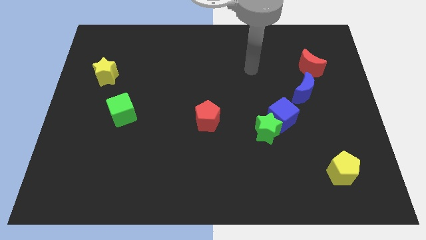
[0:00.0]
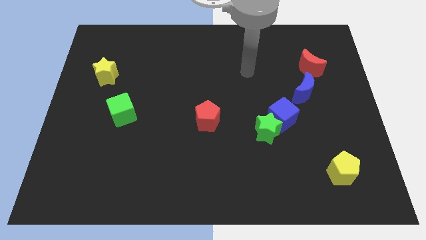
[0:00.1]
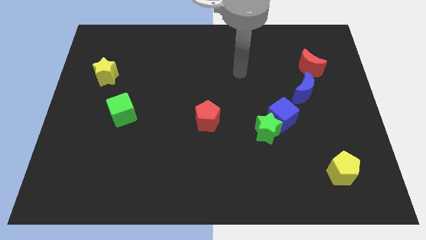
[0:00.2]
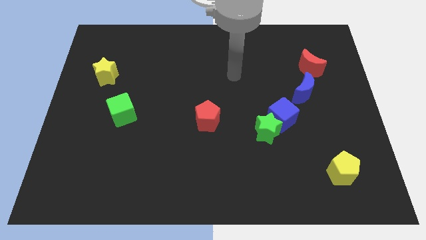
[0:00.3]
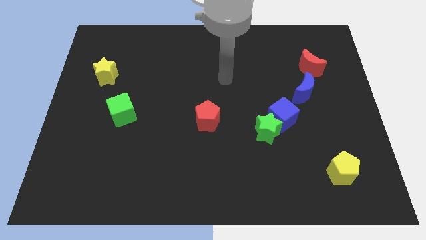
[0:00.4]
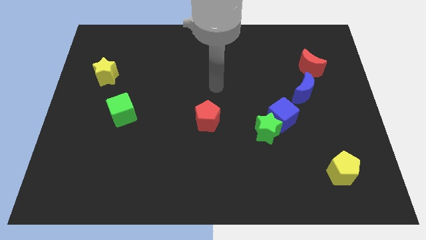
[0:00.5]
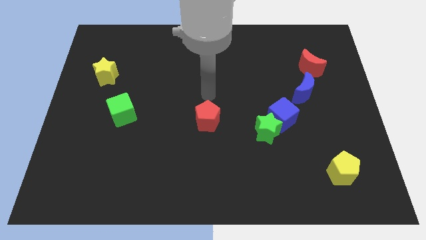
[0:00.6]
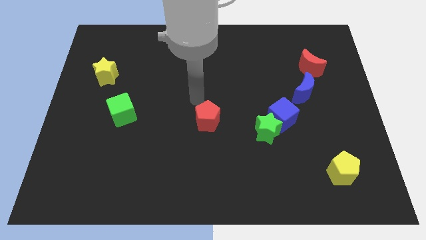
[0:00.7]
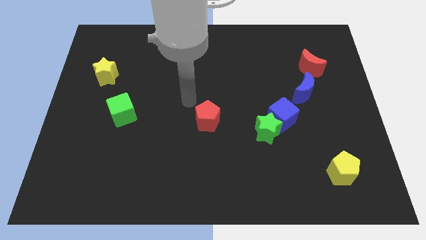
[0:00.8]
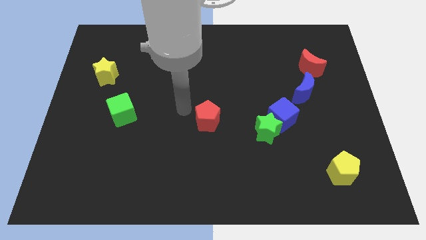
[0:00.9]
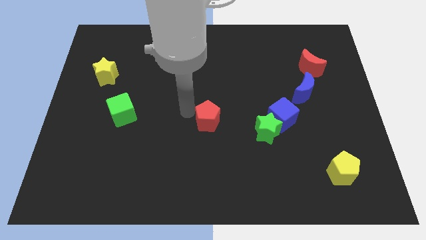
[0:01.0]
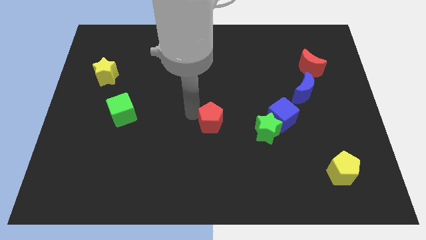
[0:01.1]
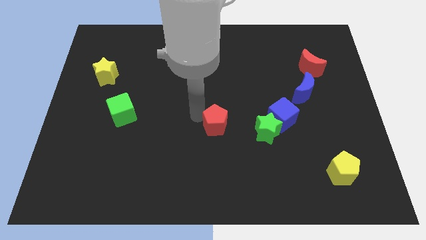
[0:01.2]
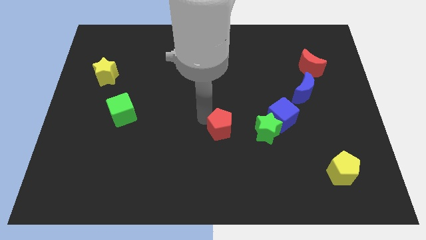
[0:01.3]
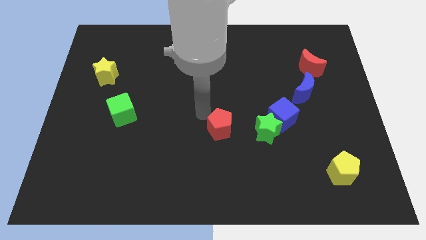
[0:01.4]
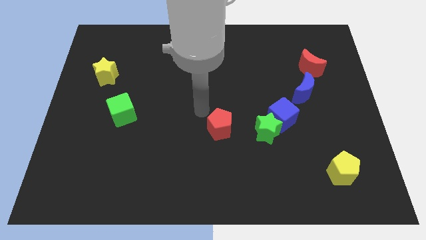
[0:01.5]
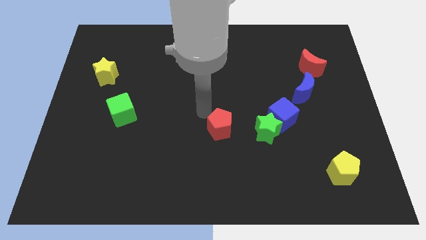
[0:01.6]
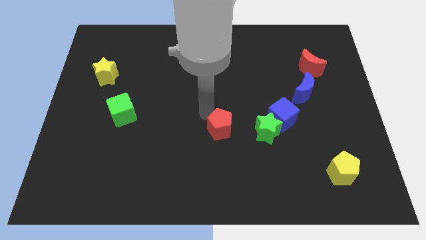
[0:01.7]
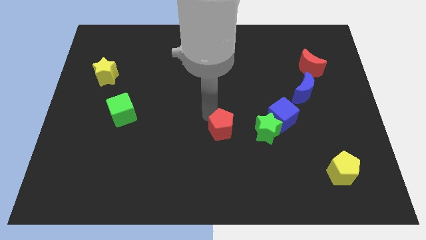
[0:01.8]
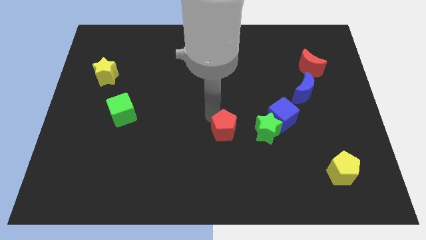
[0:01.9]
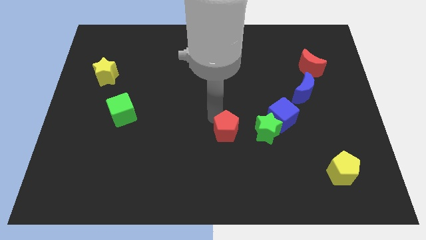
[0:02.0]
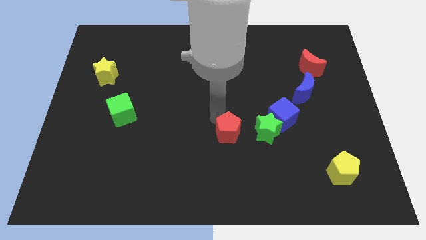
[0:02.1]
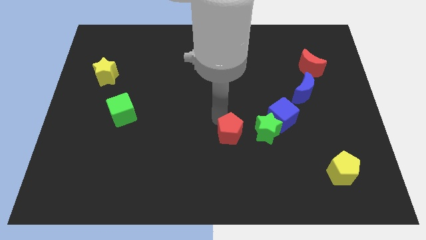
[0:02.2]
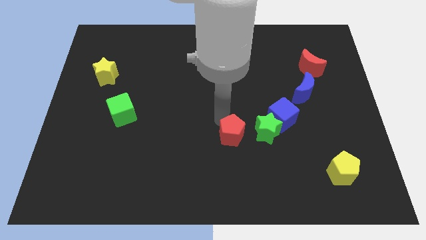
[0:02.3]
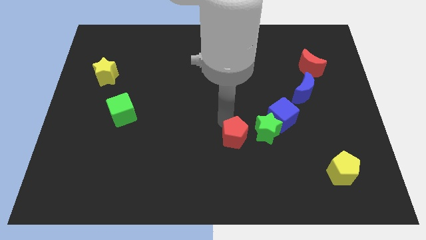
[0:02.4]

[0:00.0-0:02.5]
slightly slide the red pentagon downwards and then to the right

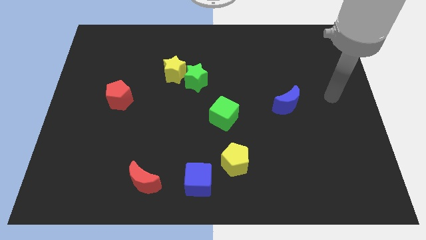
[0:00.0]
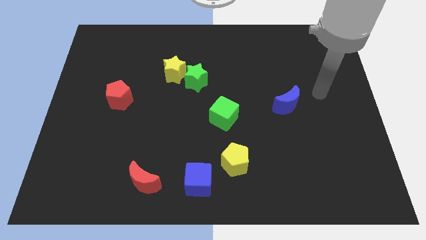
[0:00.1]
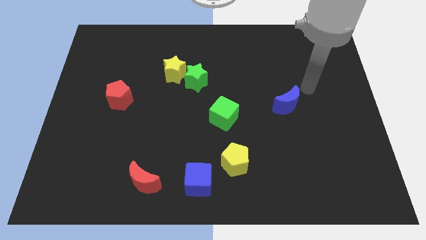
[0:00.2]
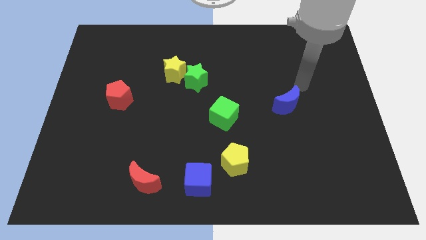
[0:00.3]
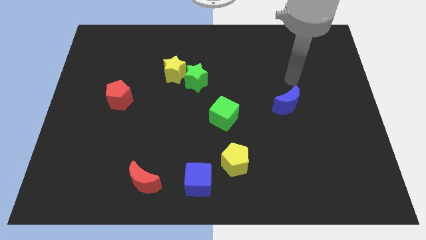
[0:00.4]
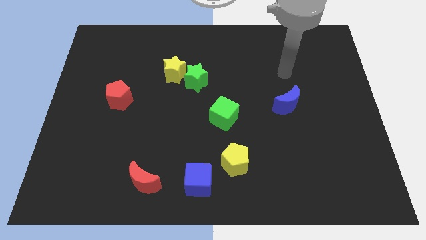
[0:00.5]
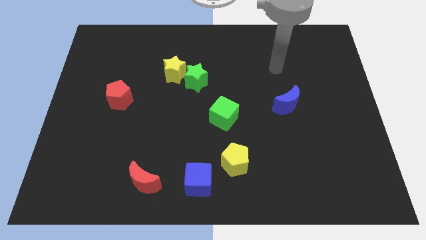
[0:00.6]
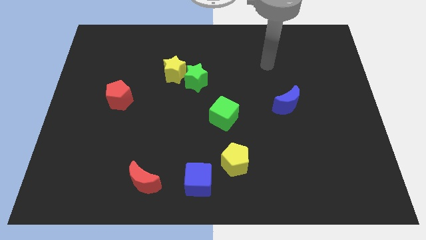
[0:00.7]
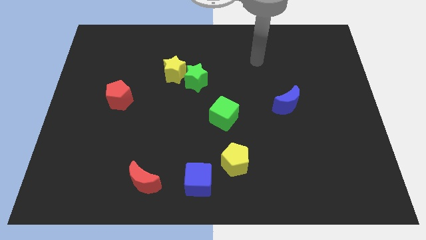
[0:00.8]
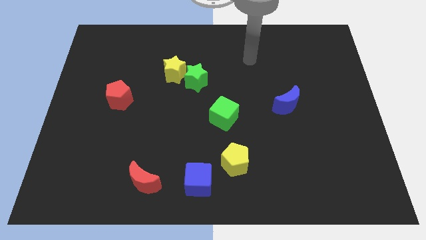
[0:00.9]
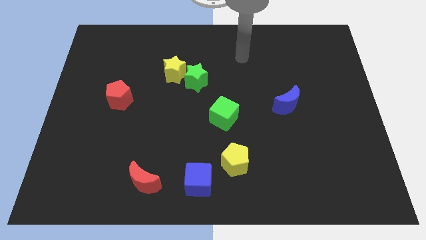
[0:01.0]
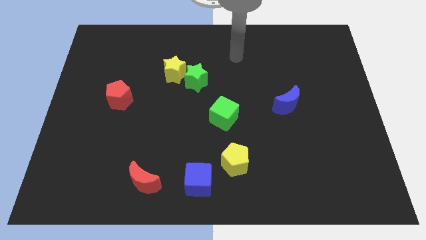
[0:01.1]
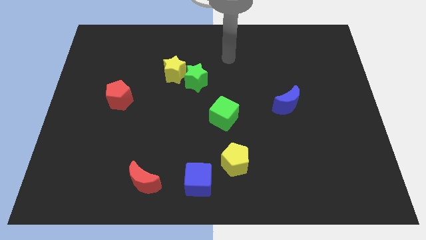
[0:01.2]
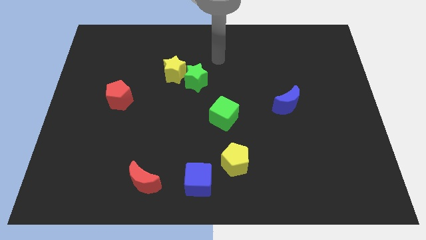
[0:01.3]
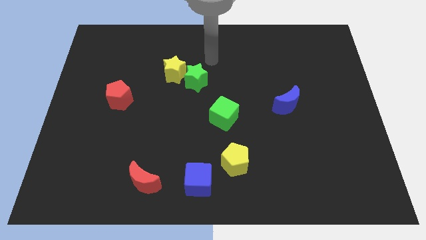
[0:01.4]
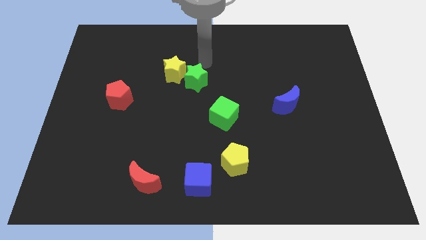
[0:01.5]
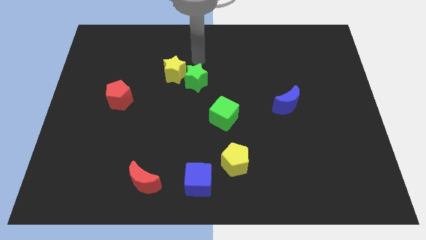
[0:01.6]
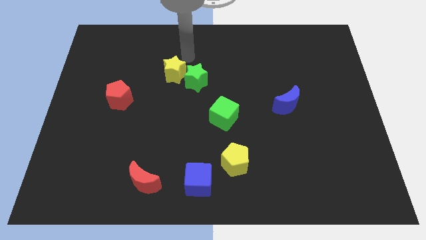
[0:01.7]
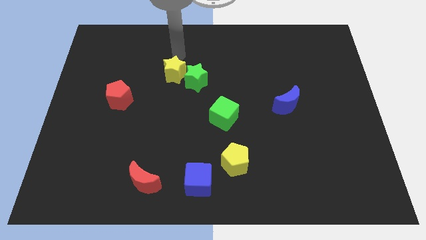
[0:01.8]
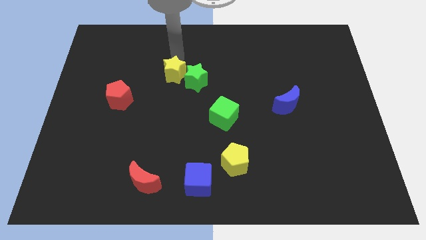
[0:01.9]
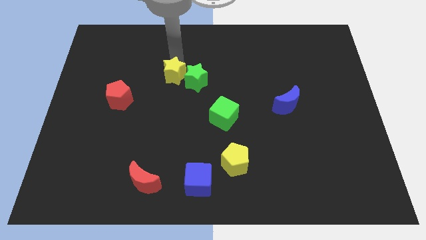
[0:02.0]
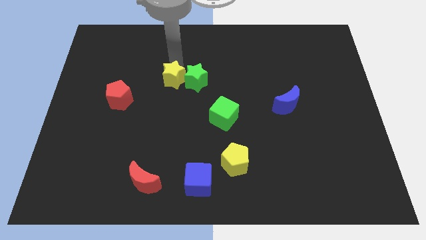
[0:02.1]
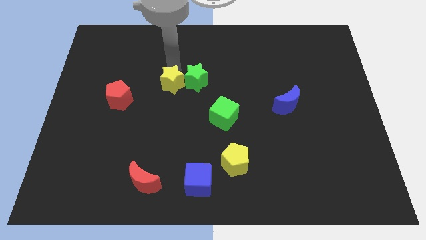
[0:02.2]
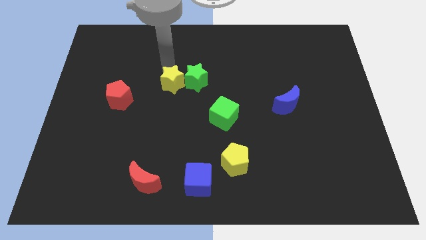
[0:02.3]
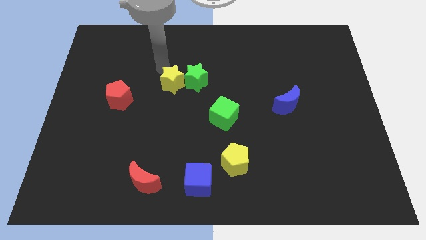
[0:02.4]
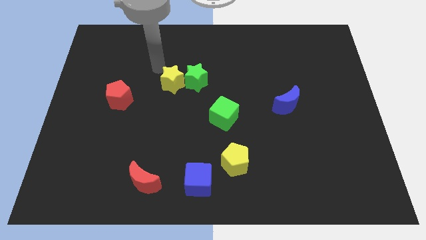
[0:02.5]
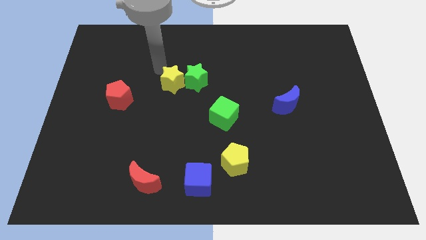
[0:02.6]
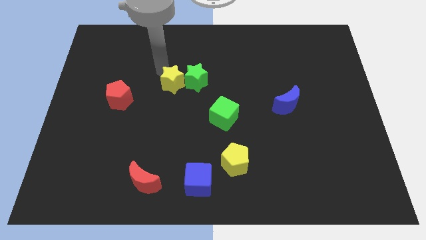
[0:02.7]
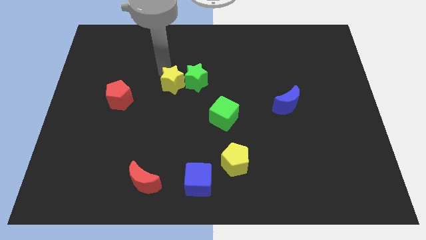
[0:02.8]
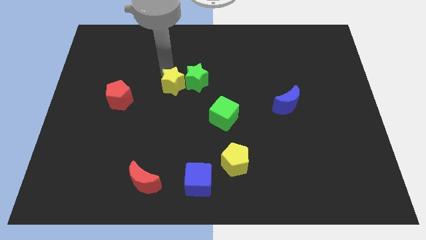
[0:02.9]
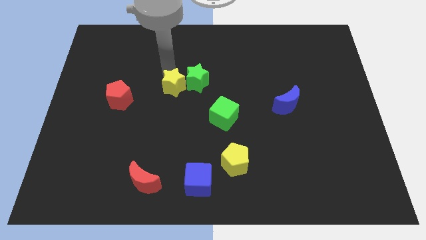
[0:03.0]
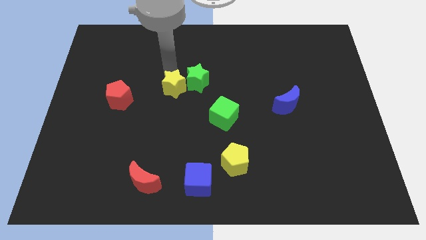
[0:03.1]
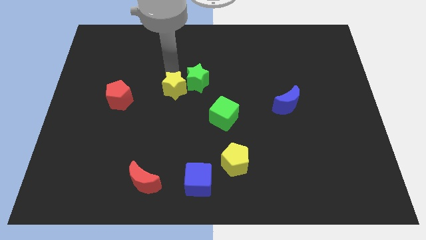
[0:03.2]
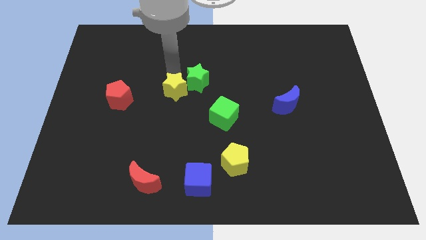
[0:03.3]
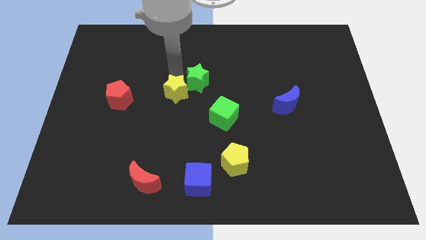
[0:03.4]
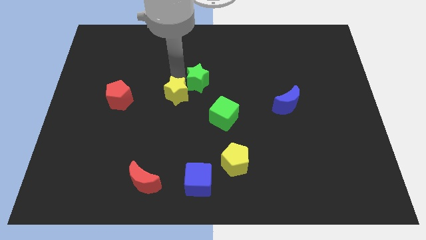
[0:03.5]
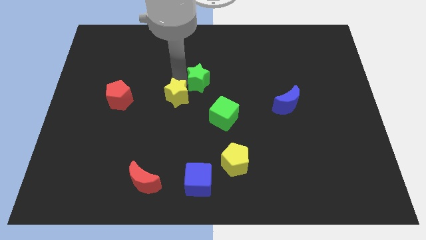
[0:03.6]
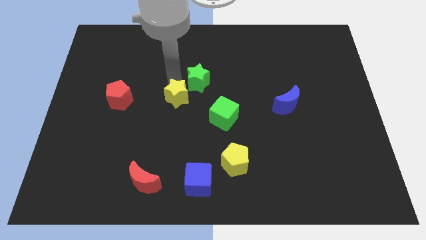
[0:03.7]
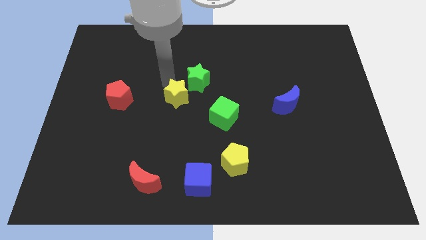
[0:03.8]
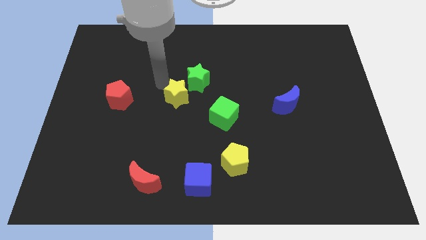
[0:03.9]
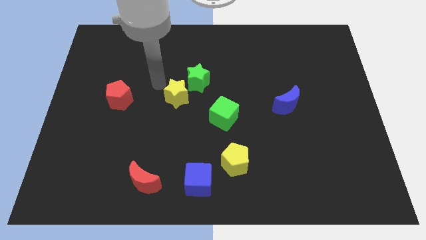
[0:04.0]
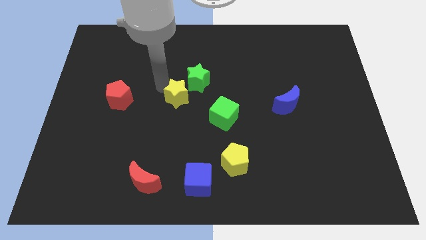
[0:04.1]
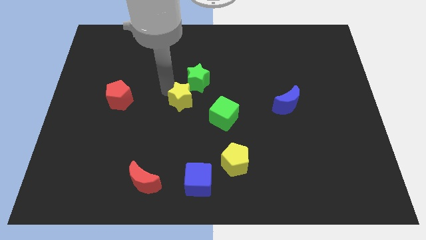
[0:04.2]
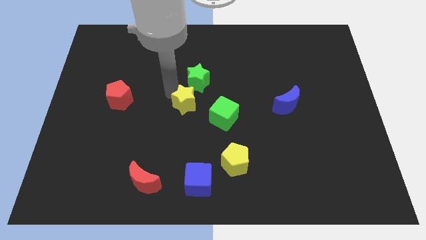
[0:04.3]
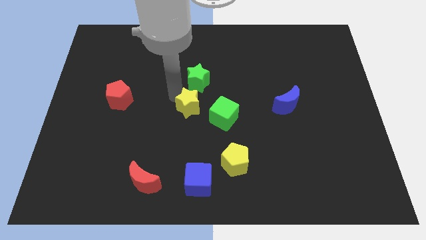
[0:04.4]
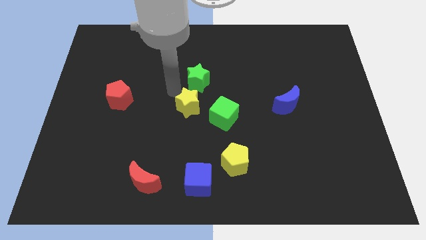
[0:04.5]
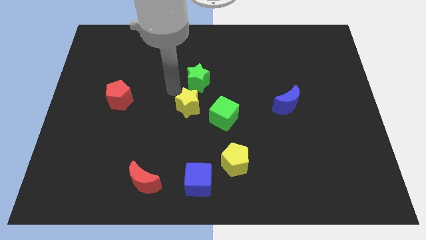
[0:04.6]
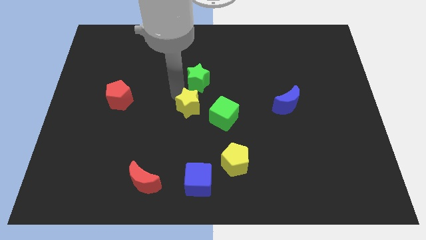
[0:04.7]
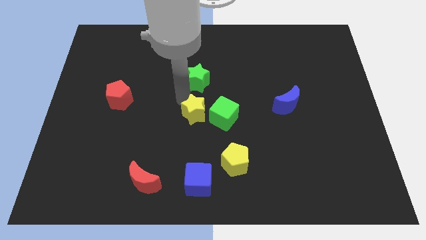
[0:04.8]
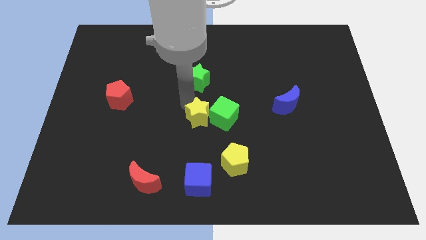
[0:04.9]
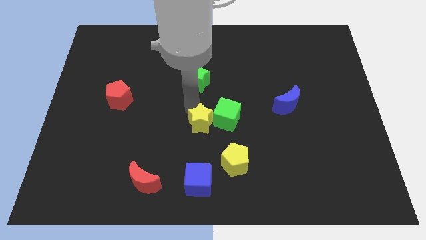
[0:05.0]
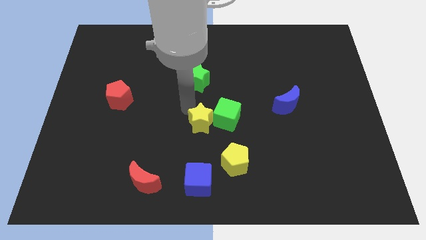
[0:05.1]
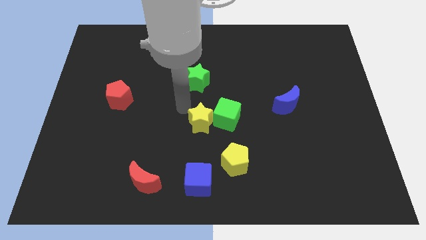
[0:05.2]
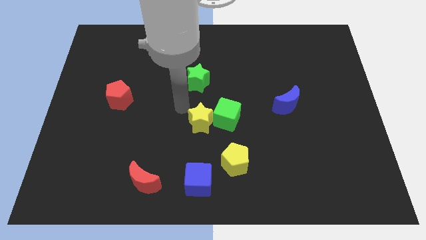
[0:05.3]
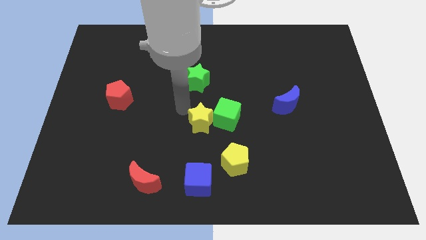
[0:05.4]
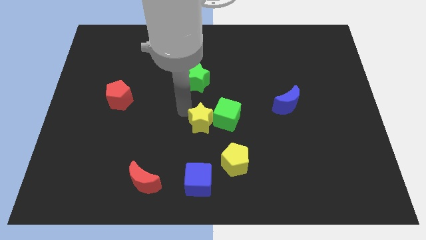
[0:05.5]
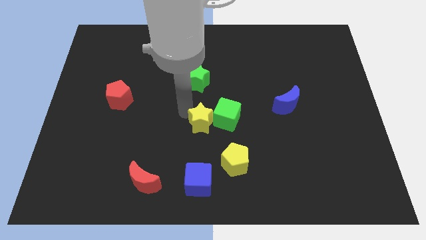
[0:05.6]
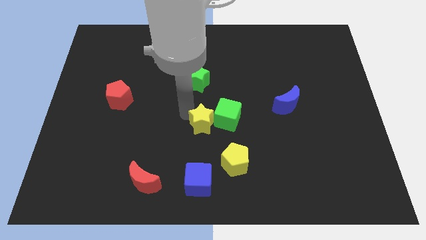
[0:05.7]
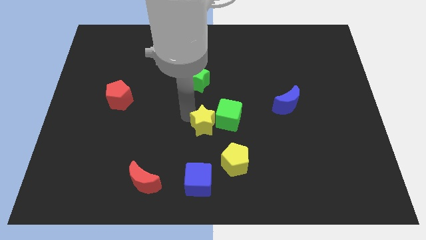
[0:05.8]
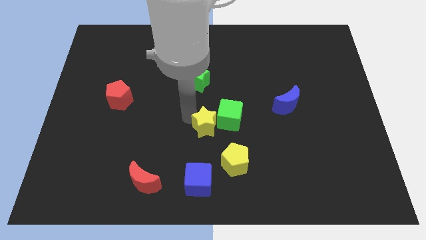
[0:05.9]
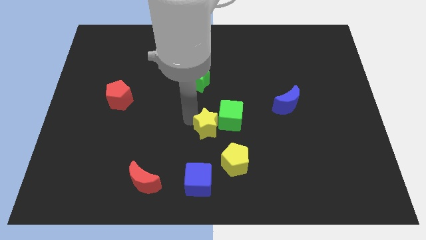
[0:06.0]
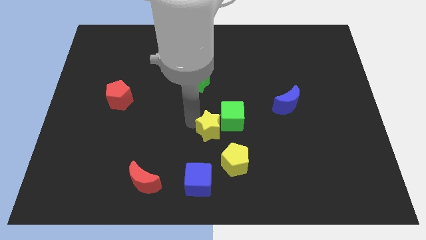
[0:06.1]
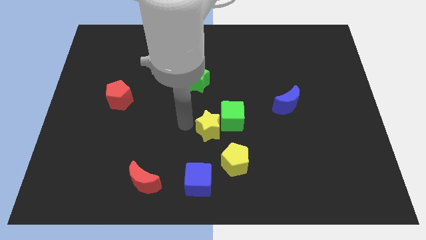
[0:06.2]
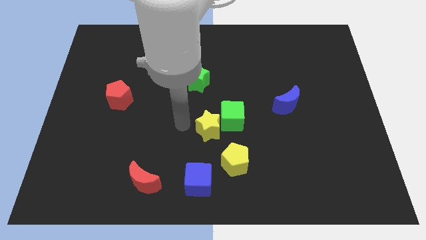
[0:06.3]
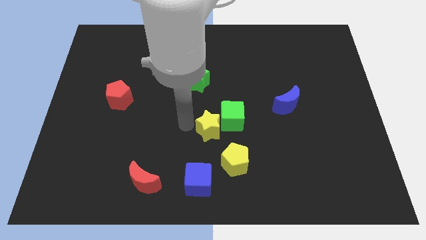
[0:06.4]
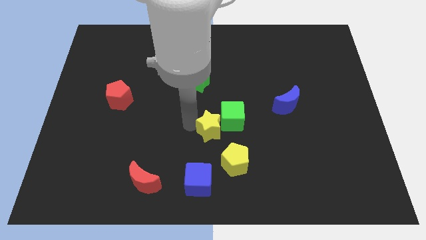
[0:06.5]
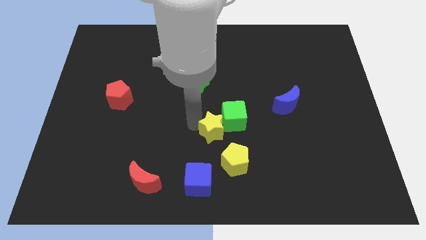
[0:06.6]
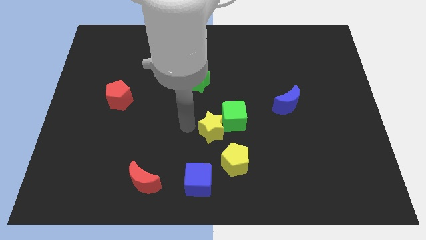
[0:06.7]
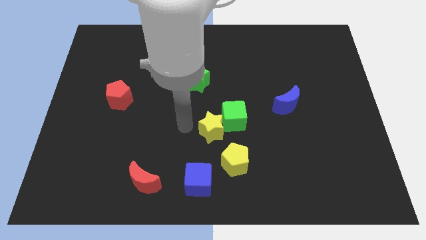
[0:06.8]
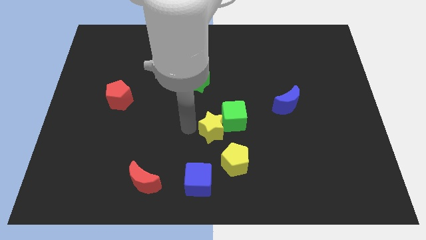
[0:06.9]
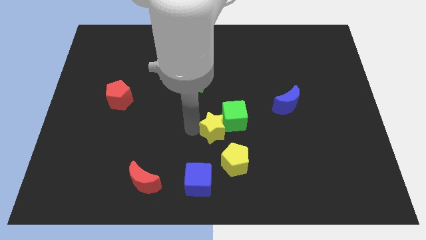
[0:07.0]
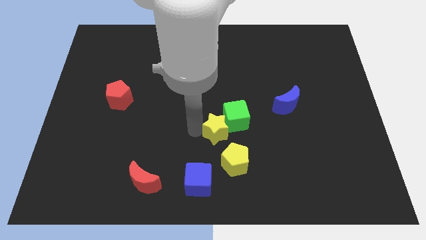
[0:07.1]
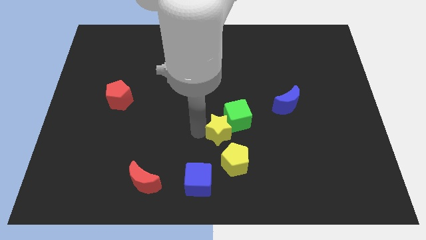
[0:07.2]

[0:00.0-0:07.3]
slide the yellow star downwards and to the right
